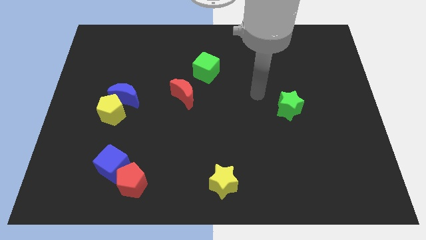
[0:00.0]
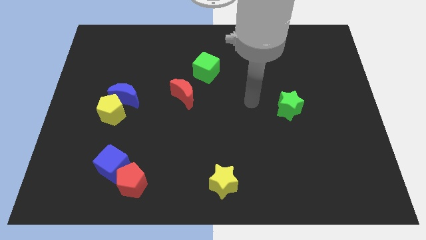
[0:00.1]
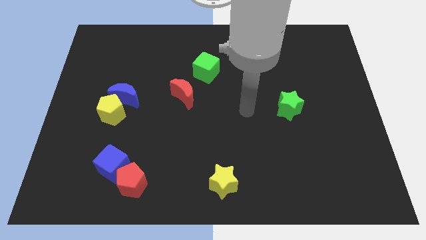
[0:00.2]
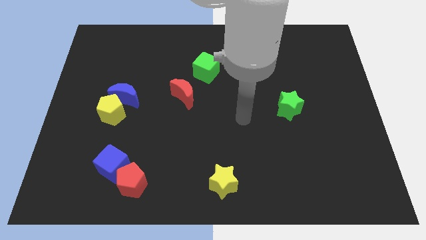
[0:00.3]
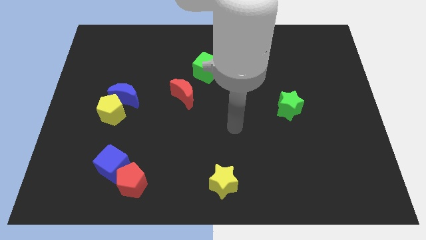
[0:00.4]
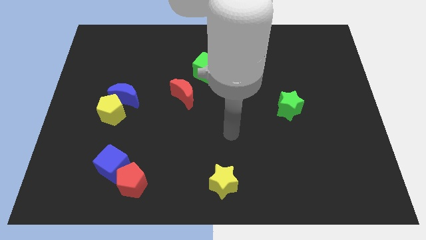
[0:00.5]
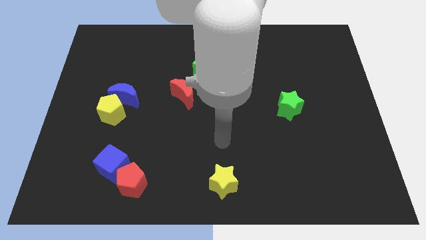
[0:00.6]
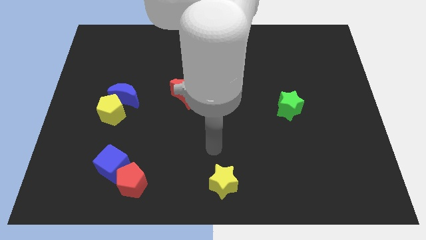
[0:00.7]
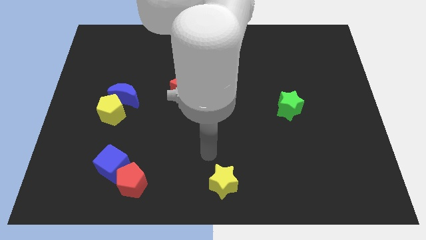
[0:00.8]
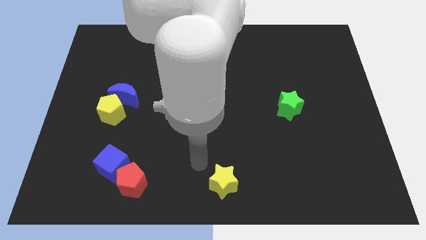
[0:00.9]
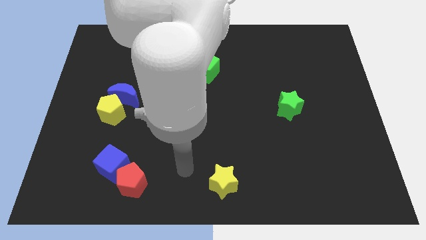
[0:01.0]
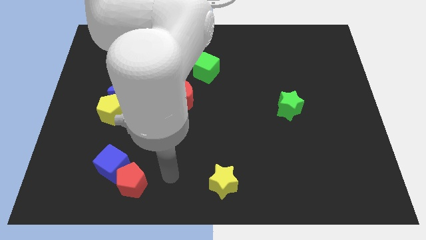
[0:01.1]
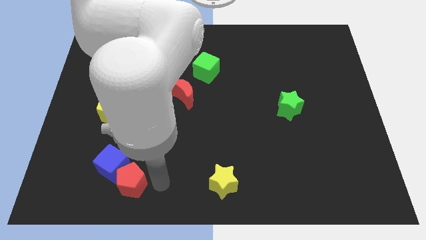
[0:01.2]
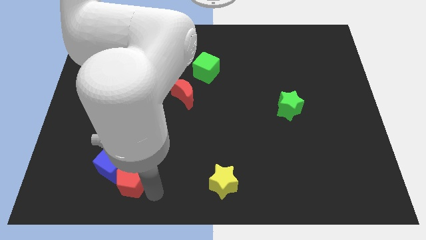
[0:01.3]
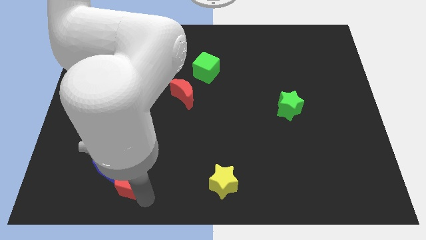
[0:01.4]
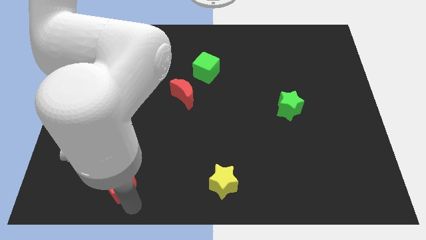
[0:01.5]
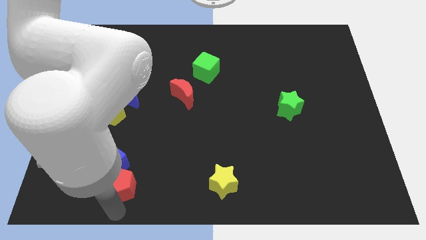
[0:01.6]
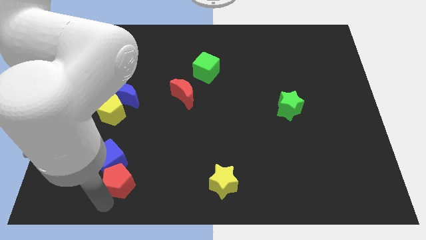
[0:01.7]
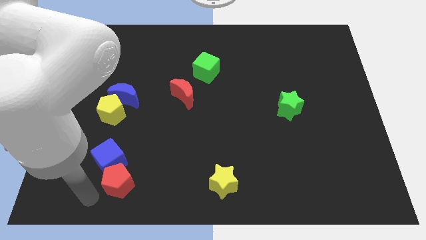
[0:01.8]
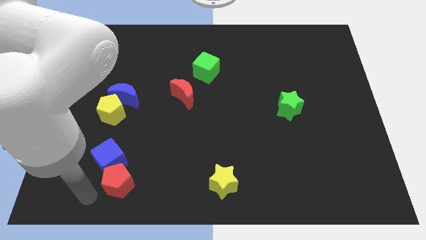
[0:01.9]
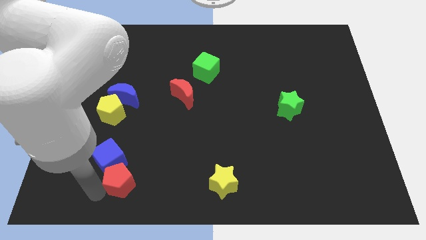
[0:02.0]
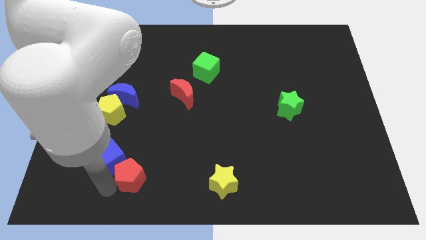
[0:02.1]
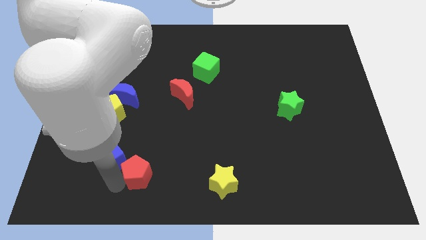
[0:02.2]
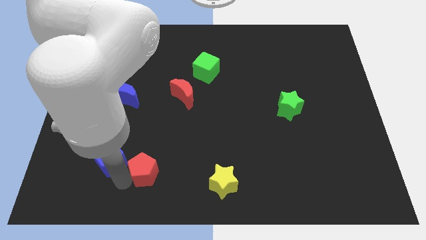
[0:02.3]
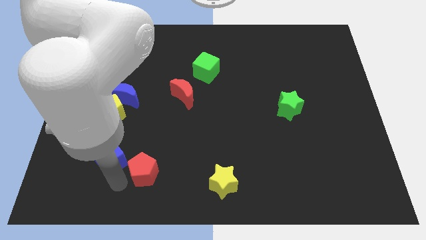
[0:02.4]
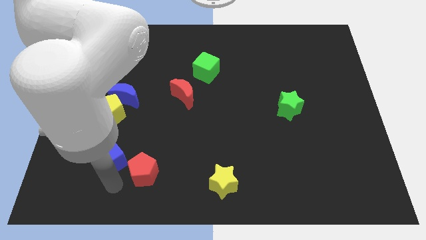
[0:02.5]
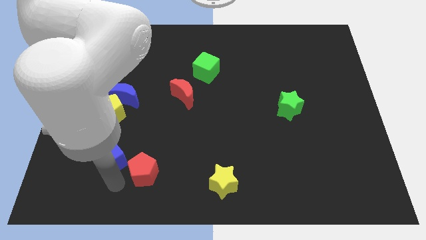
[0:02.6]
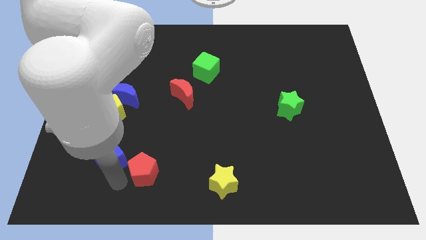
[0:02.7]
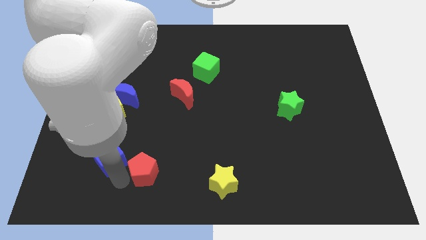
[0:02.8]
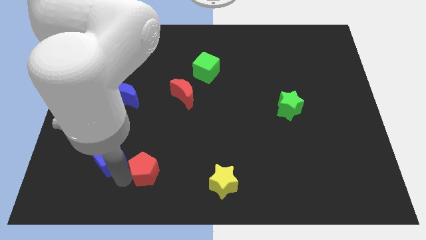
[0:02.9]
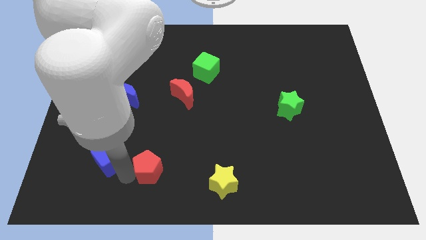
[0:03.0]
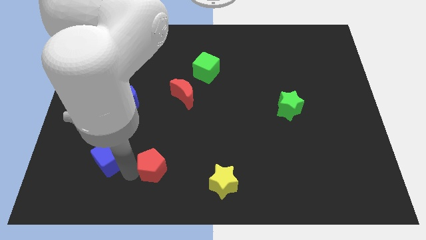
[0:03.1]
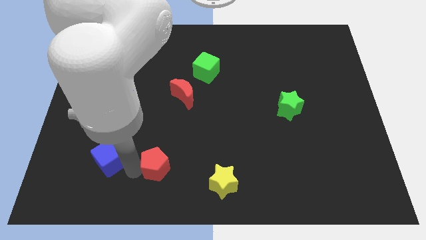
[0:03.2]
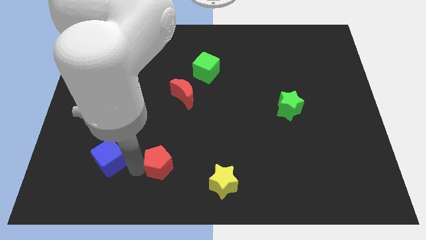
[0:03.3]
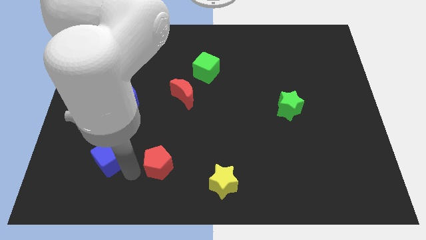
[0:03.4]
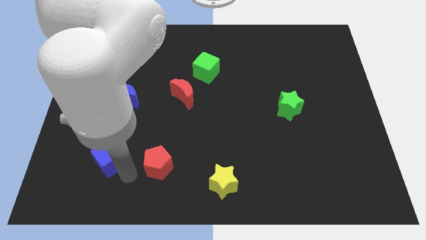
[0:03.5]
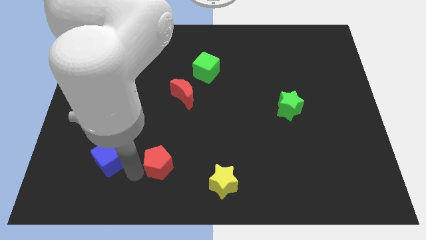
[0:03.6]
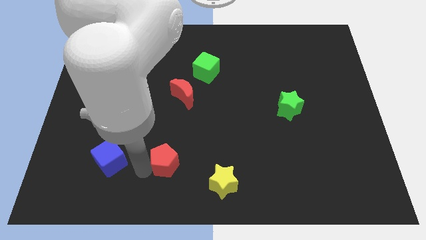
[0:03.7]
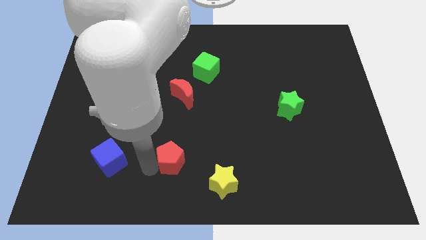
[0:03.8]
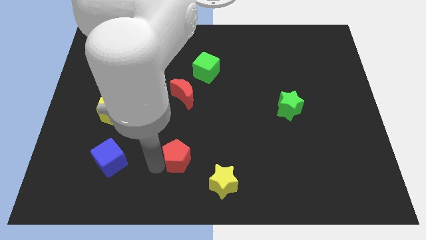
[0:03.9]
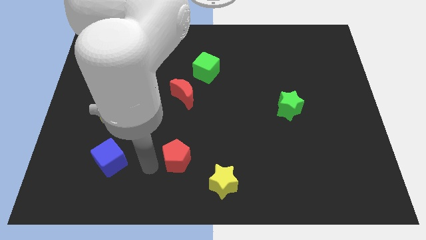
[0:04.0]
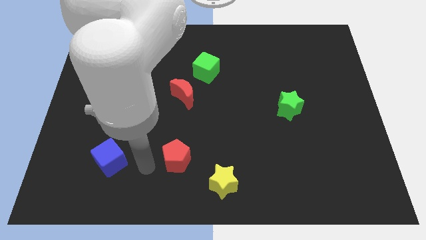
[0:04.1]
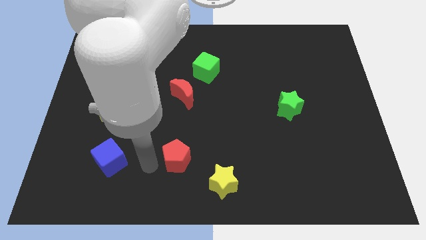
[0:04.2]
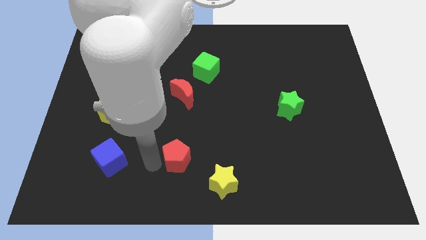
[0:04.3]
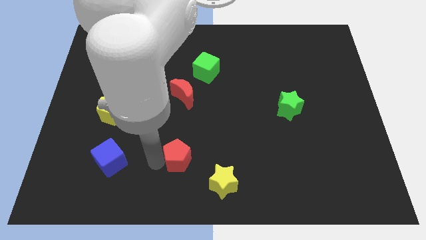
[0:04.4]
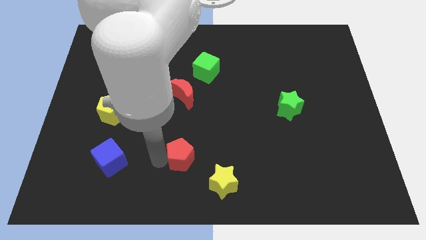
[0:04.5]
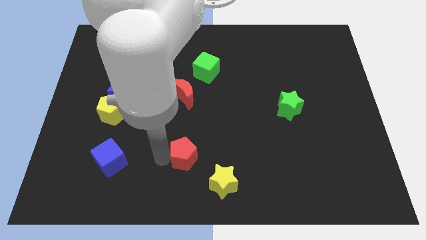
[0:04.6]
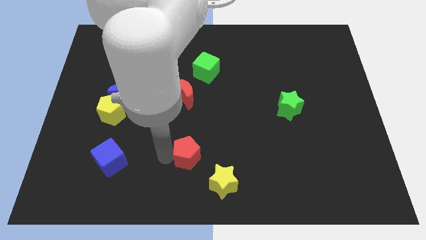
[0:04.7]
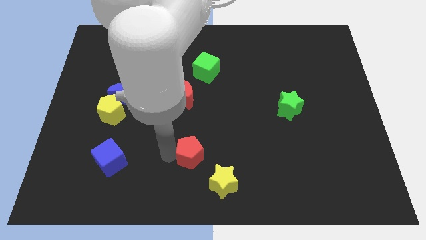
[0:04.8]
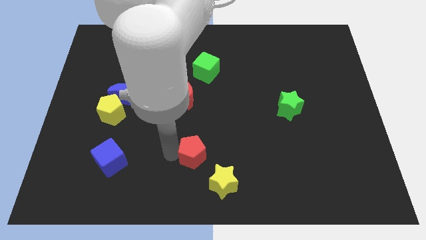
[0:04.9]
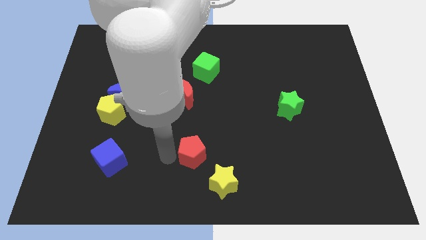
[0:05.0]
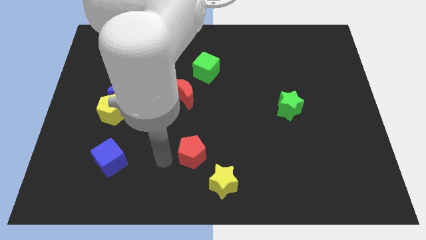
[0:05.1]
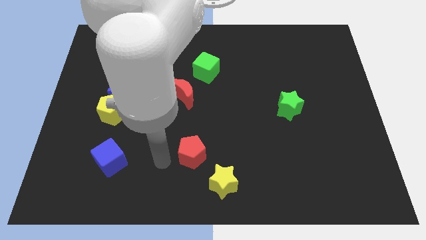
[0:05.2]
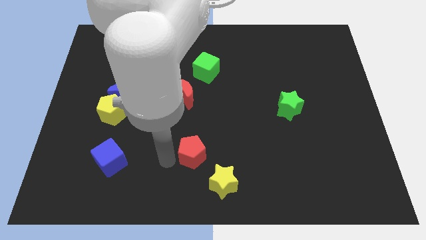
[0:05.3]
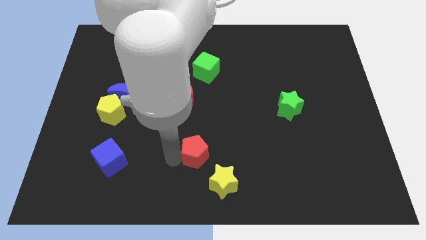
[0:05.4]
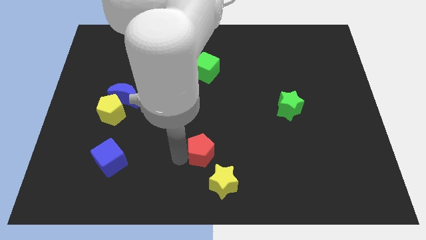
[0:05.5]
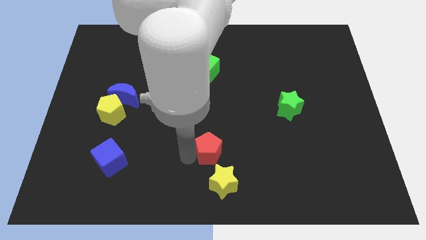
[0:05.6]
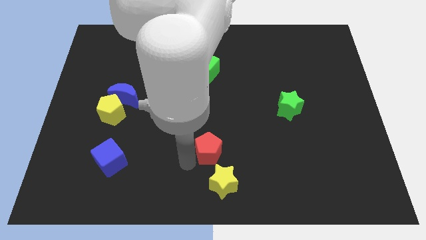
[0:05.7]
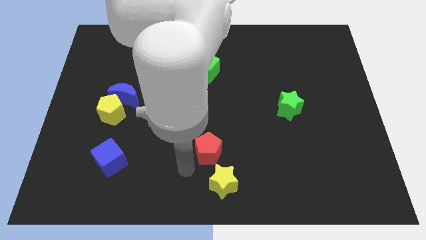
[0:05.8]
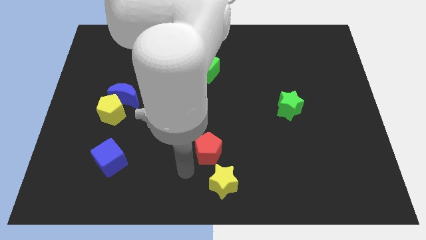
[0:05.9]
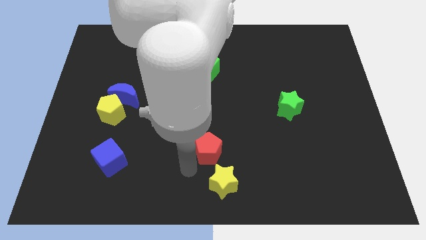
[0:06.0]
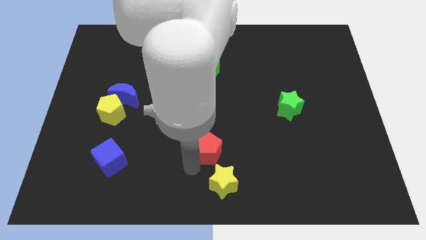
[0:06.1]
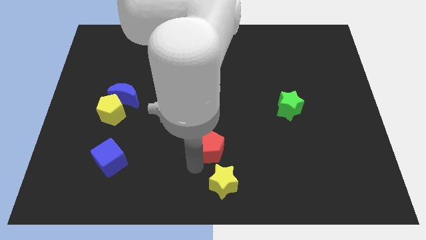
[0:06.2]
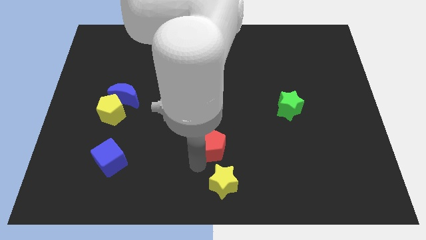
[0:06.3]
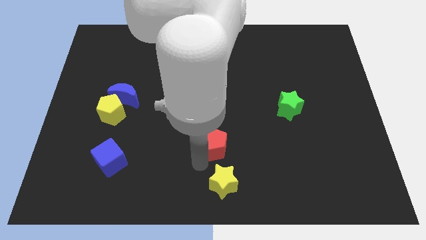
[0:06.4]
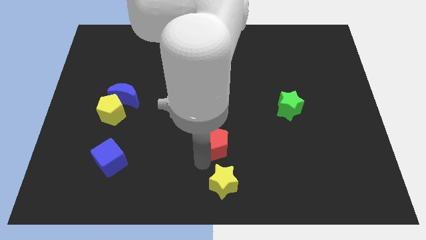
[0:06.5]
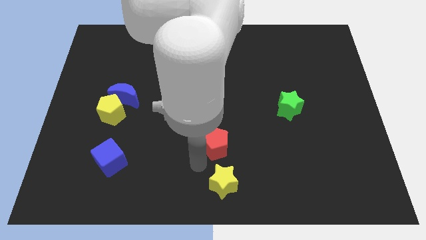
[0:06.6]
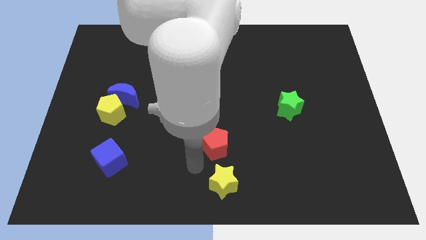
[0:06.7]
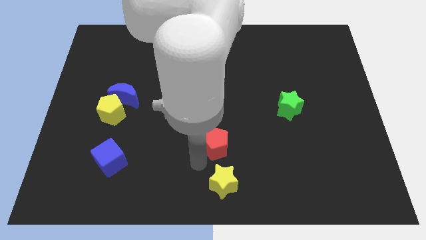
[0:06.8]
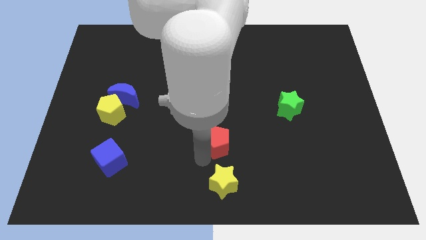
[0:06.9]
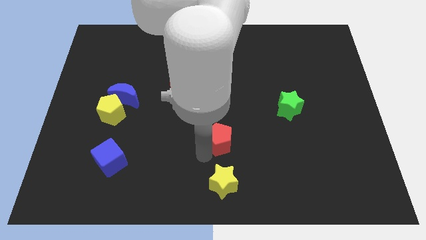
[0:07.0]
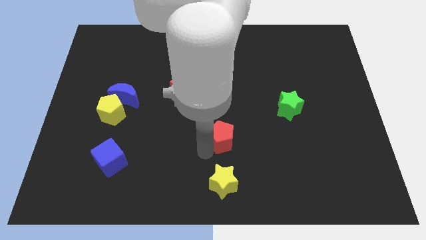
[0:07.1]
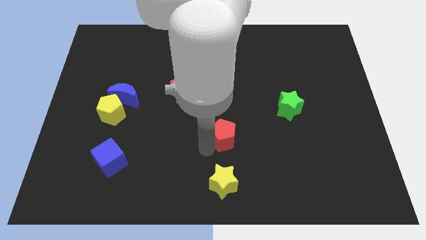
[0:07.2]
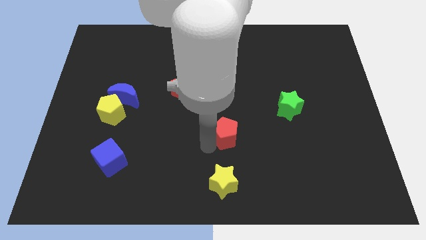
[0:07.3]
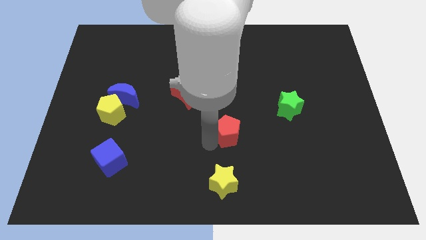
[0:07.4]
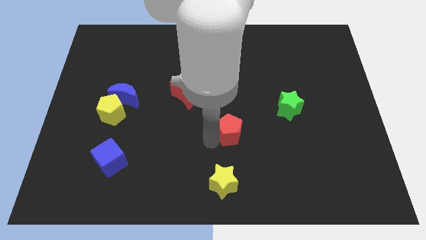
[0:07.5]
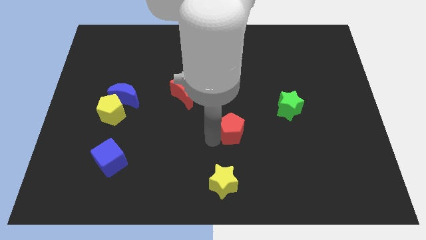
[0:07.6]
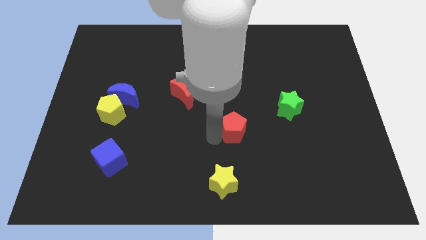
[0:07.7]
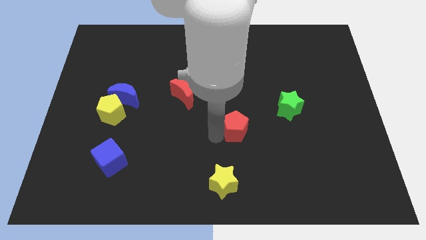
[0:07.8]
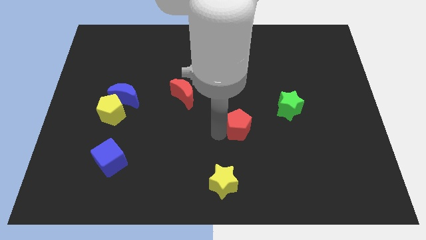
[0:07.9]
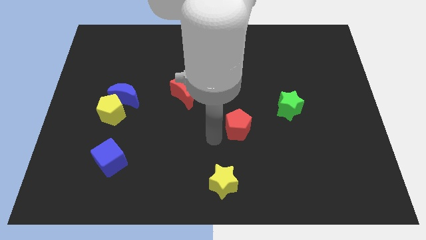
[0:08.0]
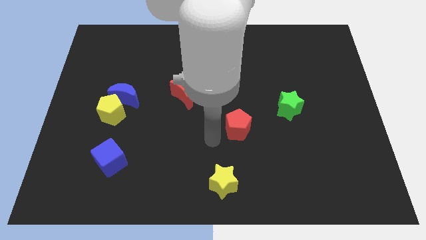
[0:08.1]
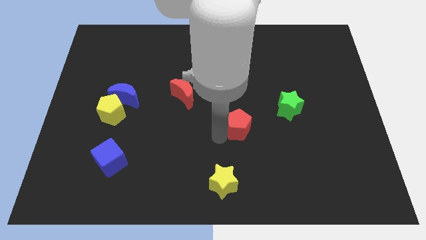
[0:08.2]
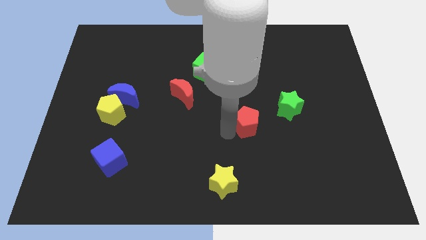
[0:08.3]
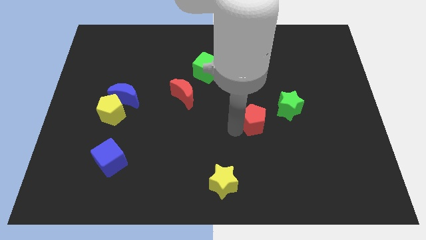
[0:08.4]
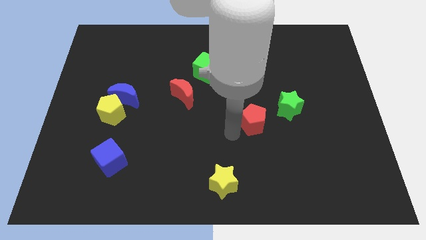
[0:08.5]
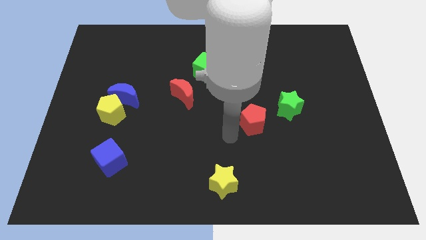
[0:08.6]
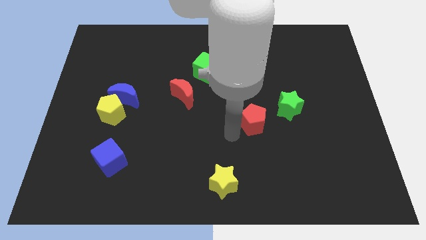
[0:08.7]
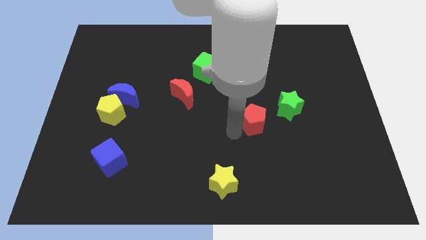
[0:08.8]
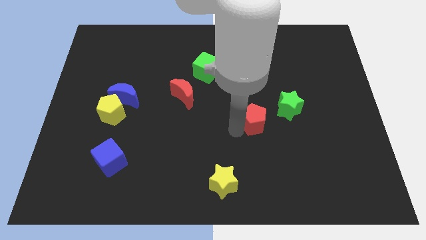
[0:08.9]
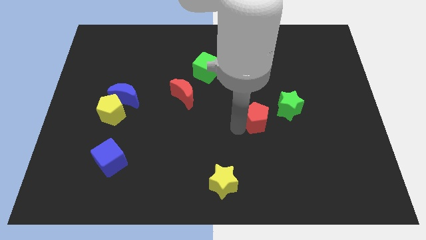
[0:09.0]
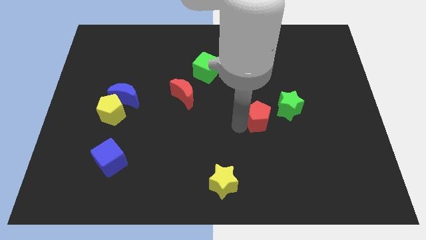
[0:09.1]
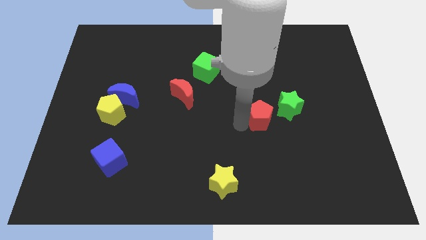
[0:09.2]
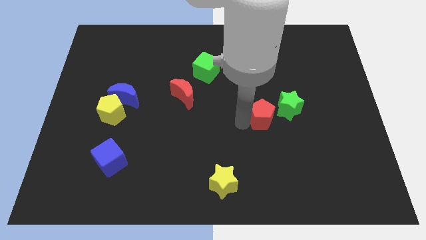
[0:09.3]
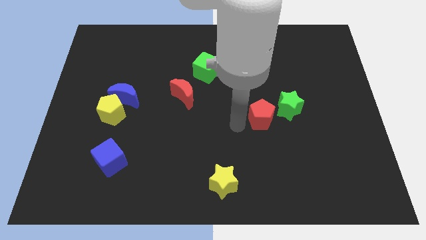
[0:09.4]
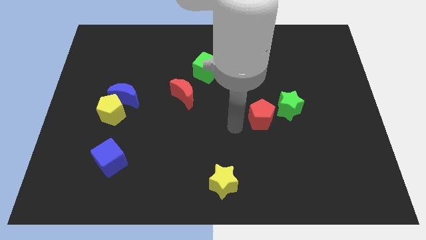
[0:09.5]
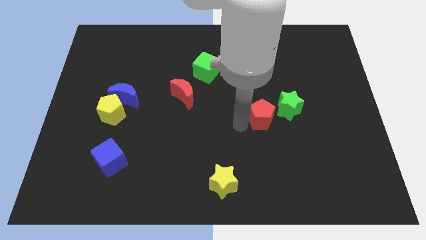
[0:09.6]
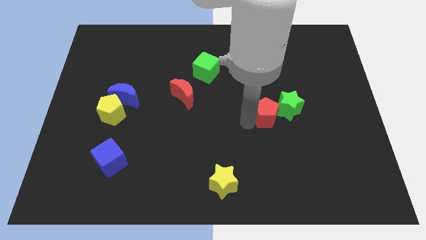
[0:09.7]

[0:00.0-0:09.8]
put the red pentagon close to the green star
